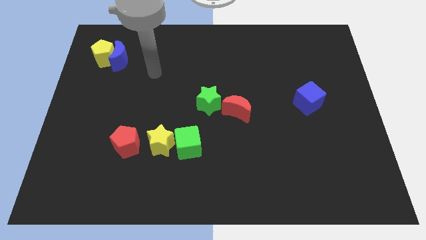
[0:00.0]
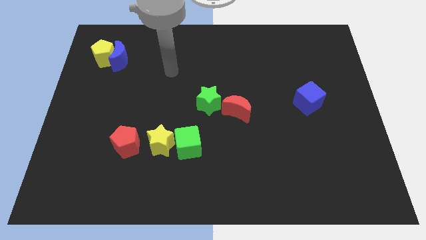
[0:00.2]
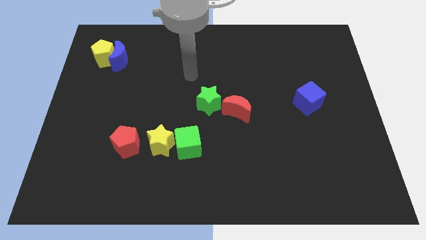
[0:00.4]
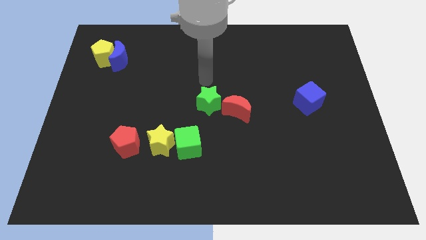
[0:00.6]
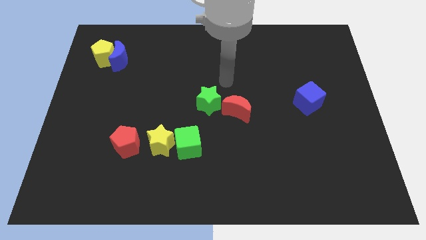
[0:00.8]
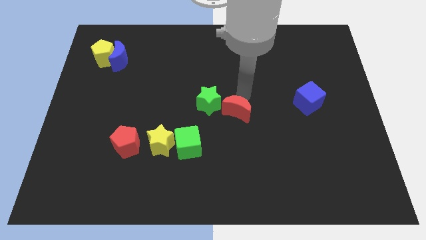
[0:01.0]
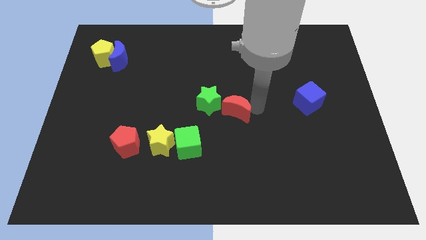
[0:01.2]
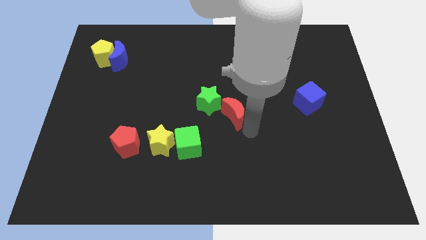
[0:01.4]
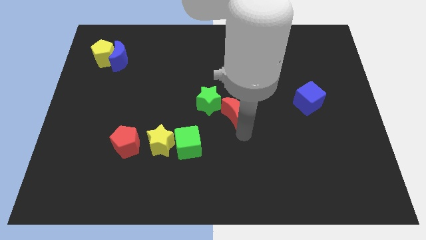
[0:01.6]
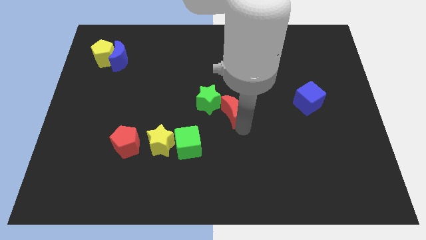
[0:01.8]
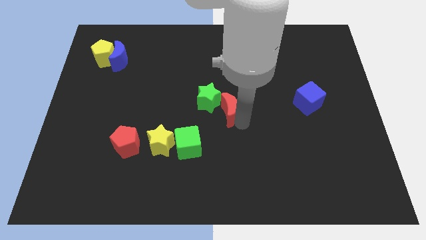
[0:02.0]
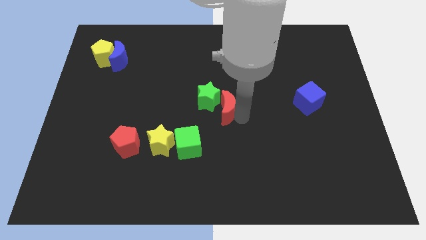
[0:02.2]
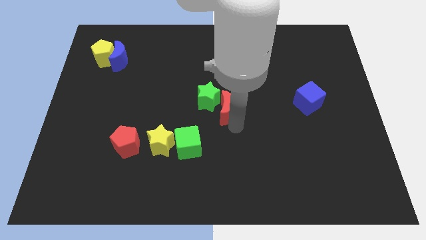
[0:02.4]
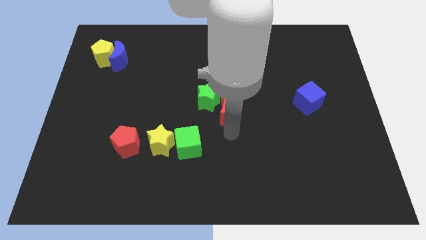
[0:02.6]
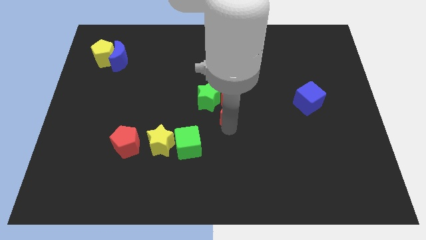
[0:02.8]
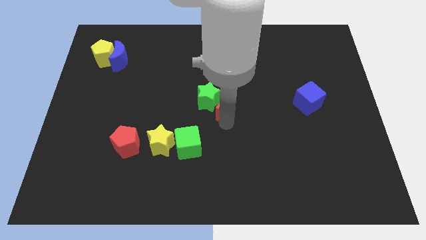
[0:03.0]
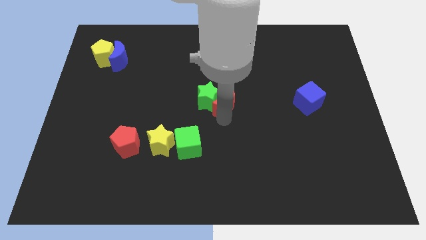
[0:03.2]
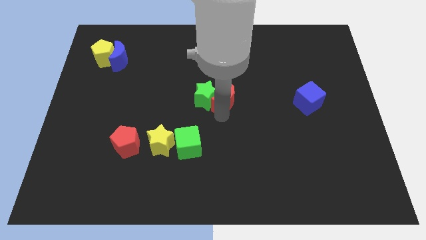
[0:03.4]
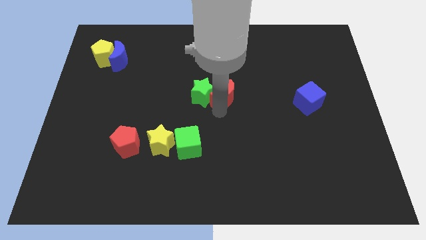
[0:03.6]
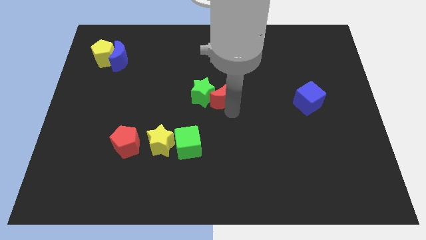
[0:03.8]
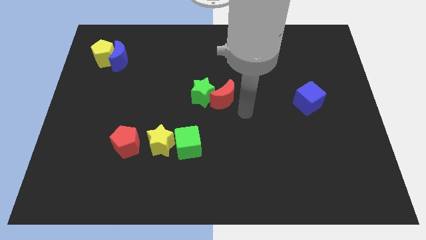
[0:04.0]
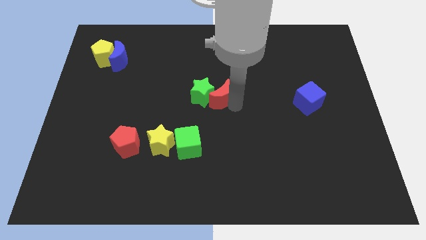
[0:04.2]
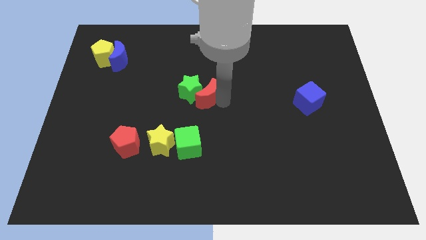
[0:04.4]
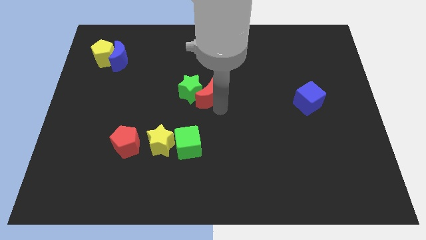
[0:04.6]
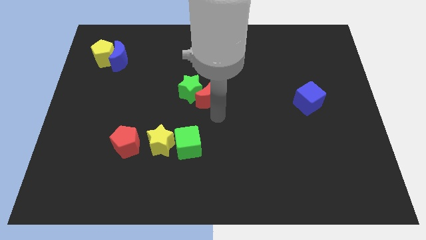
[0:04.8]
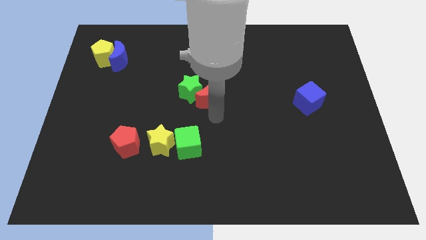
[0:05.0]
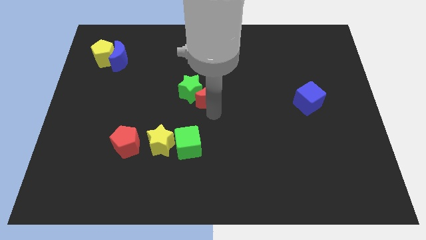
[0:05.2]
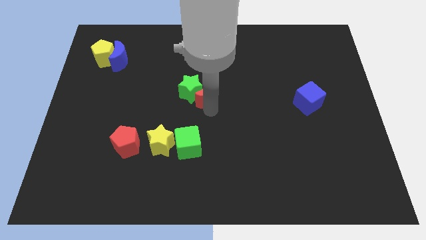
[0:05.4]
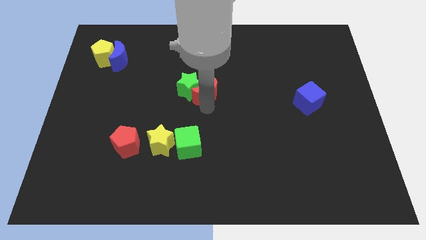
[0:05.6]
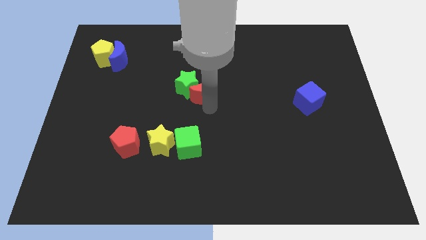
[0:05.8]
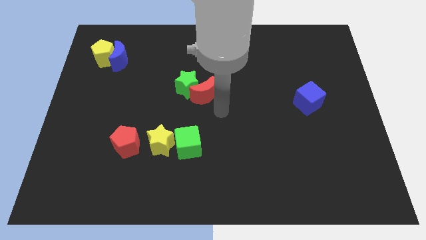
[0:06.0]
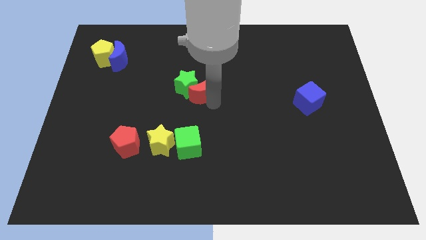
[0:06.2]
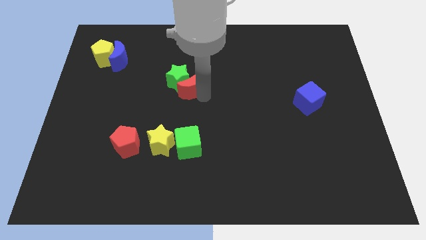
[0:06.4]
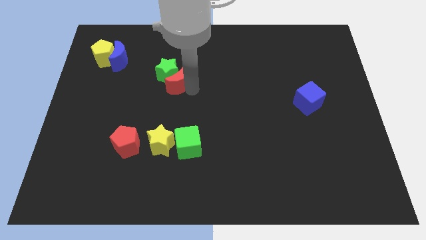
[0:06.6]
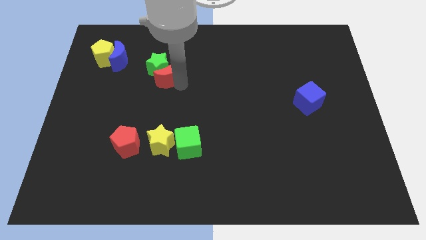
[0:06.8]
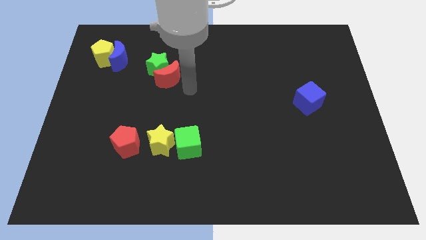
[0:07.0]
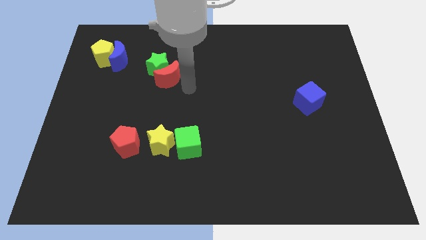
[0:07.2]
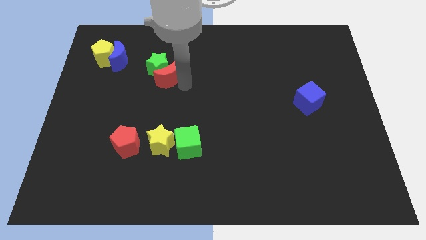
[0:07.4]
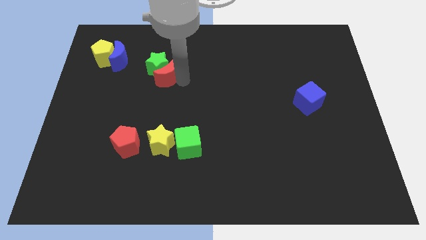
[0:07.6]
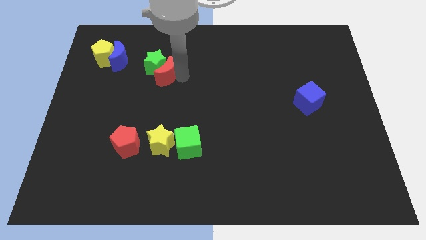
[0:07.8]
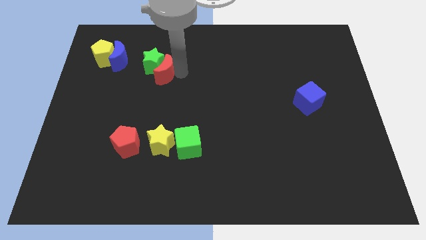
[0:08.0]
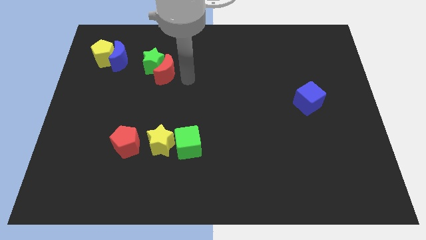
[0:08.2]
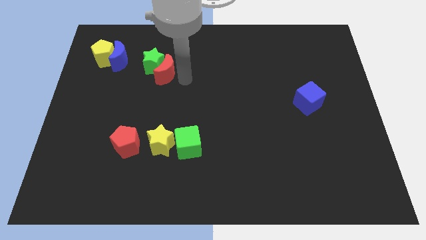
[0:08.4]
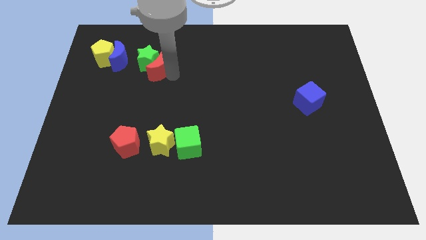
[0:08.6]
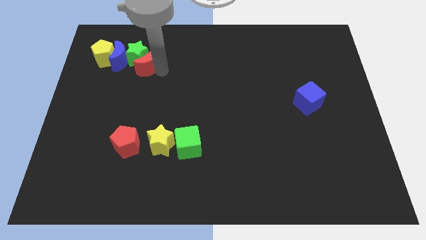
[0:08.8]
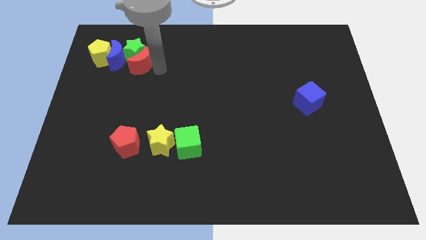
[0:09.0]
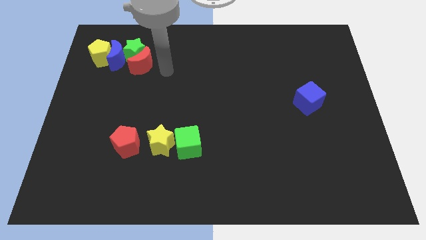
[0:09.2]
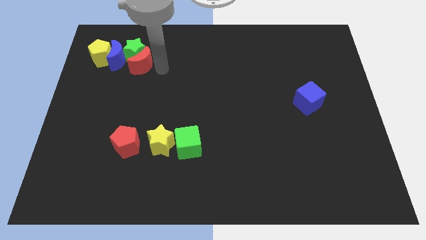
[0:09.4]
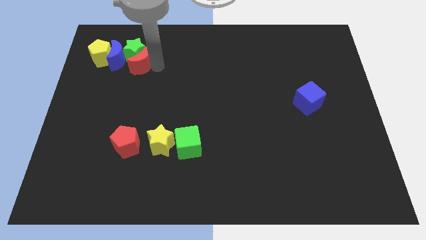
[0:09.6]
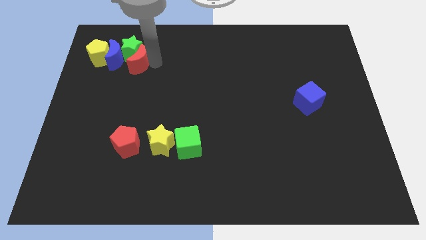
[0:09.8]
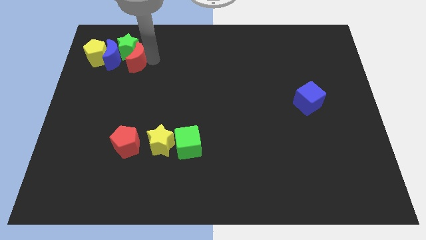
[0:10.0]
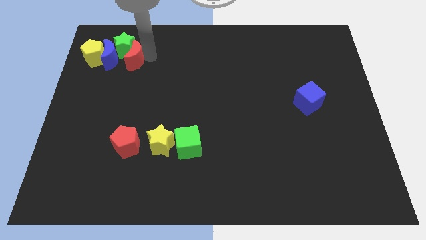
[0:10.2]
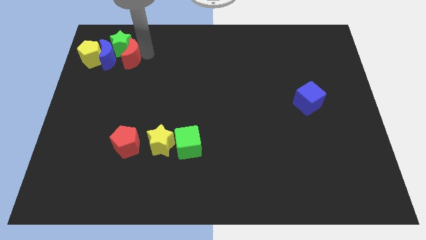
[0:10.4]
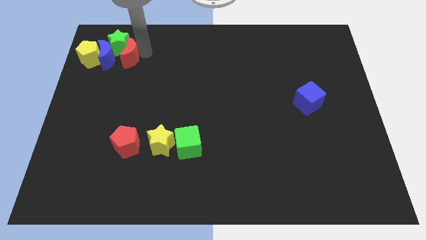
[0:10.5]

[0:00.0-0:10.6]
slide the red moon next to the blue moon

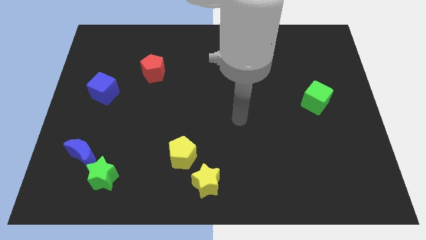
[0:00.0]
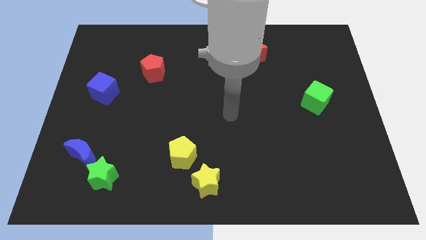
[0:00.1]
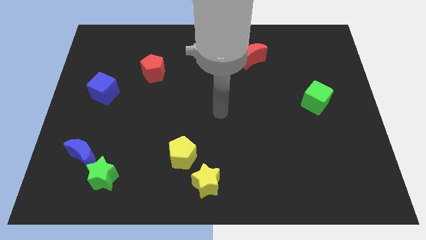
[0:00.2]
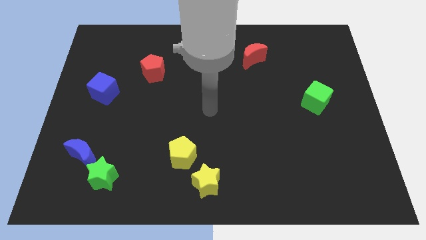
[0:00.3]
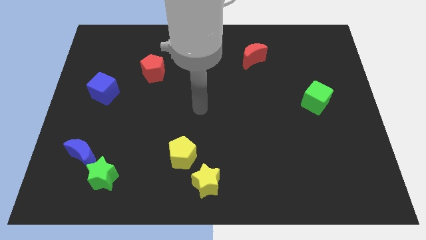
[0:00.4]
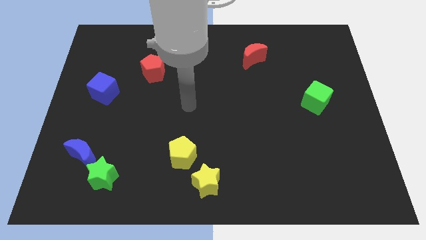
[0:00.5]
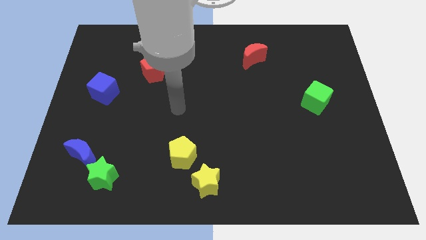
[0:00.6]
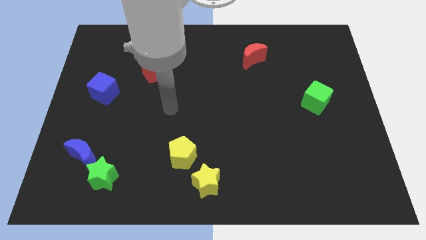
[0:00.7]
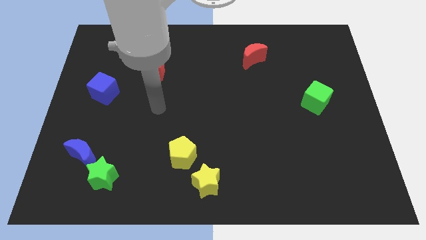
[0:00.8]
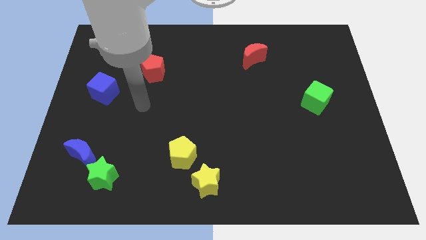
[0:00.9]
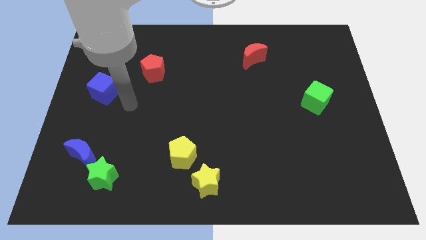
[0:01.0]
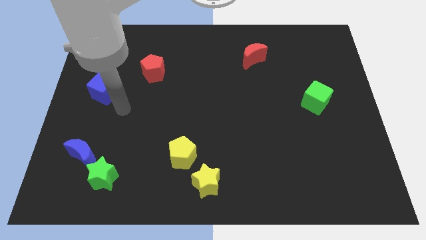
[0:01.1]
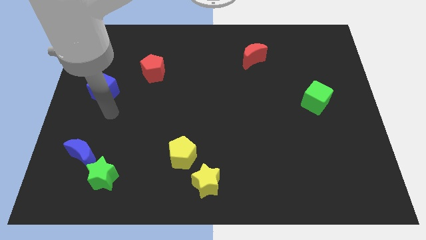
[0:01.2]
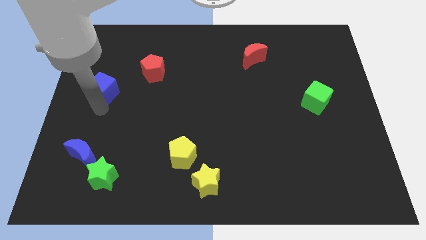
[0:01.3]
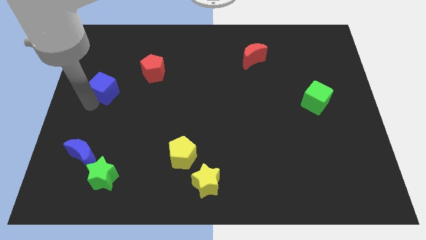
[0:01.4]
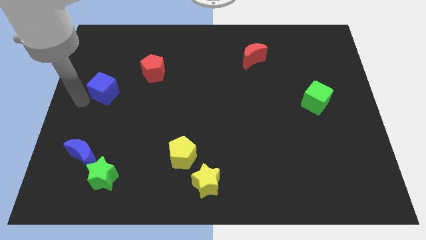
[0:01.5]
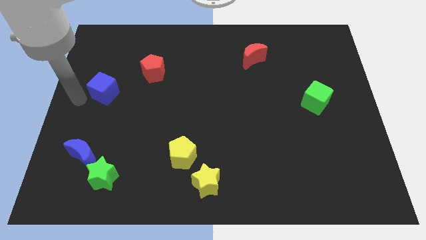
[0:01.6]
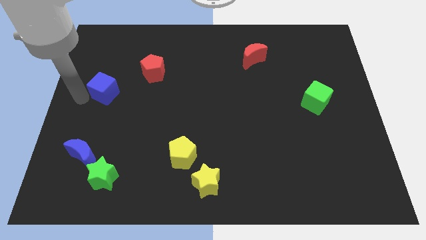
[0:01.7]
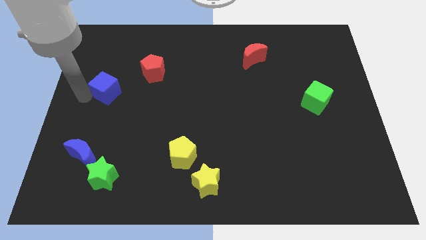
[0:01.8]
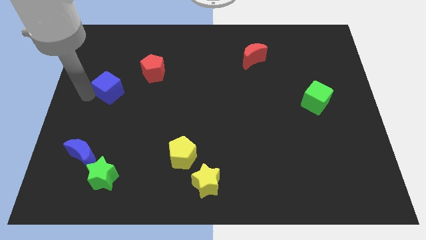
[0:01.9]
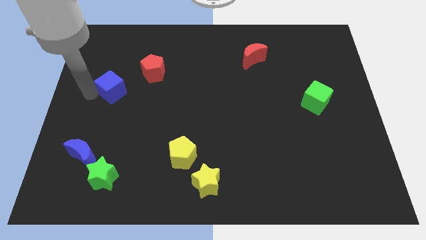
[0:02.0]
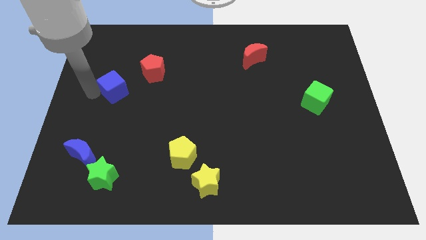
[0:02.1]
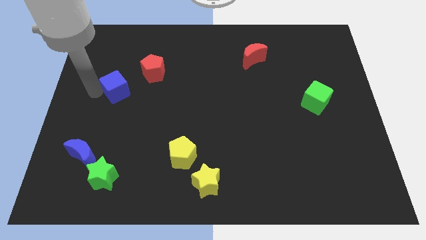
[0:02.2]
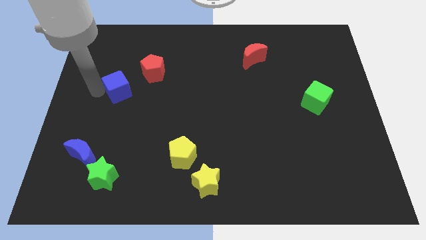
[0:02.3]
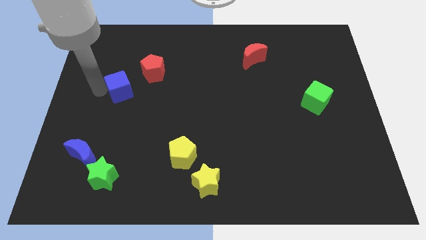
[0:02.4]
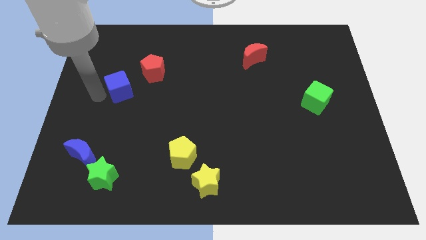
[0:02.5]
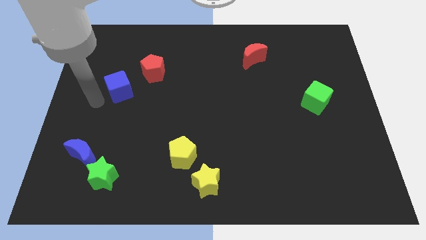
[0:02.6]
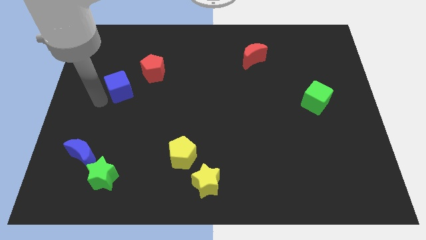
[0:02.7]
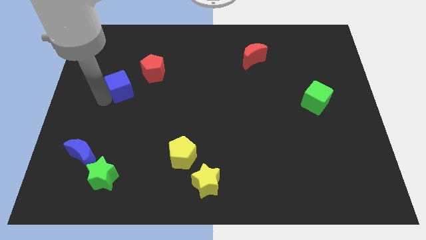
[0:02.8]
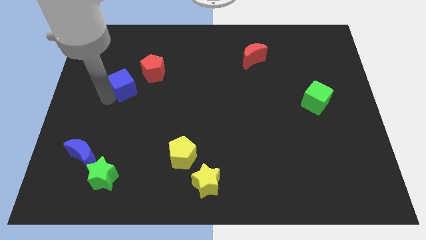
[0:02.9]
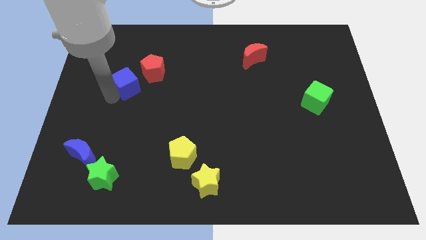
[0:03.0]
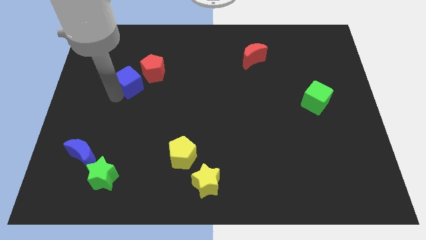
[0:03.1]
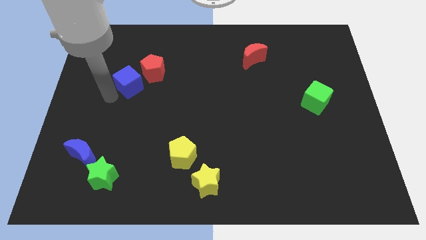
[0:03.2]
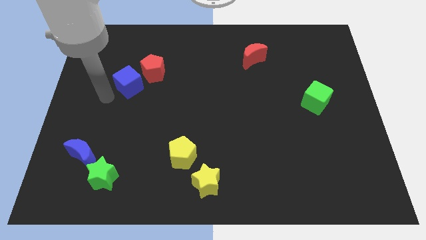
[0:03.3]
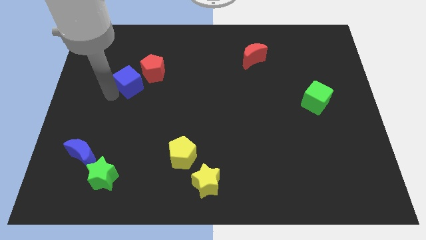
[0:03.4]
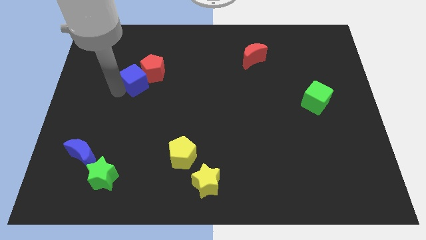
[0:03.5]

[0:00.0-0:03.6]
move the blue cube to the red pentagon
